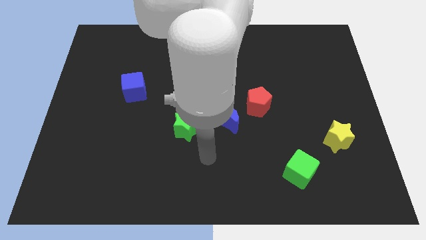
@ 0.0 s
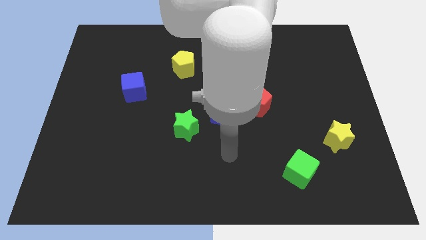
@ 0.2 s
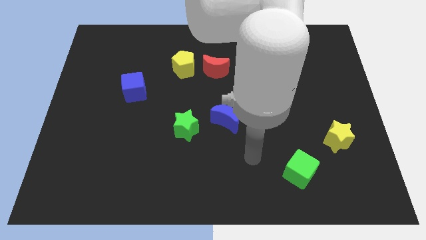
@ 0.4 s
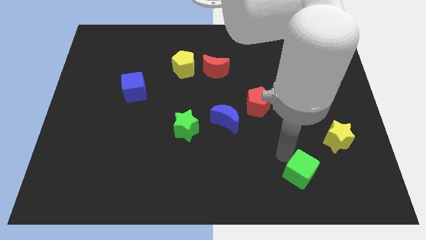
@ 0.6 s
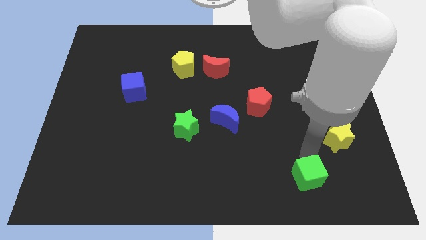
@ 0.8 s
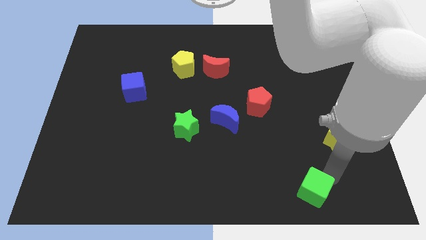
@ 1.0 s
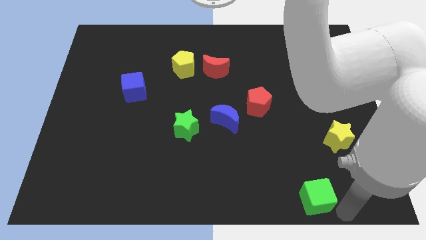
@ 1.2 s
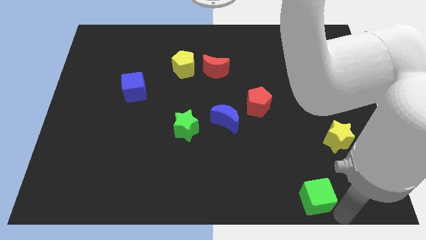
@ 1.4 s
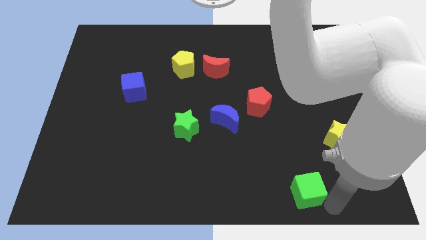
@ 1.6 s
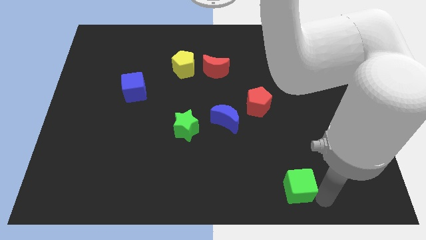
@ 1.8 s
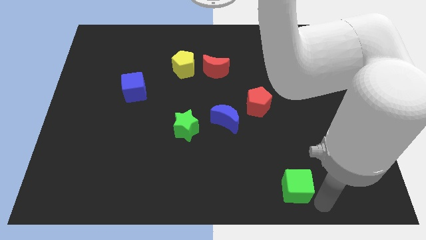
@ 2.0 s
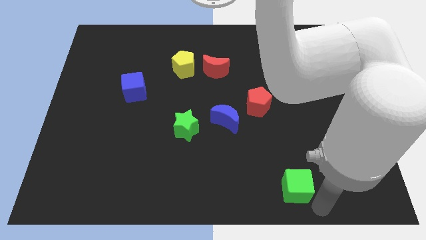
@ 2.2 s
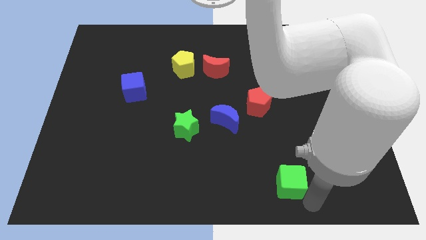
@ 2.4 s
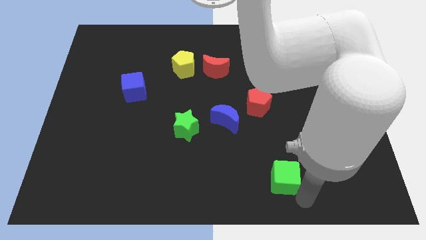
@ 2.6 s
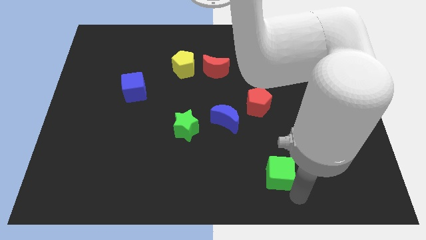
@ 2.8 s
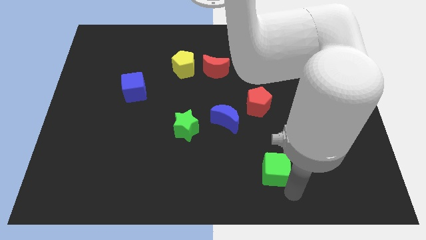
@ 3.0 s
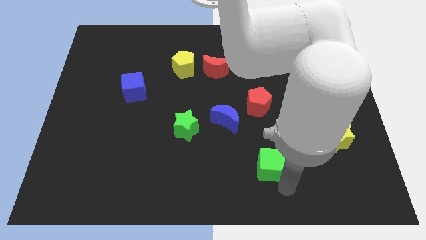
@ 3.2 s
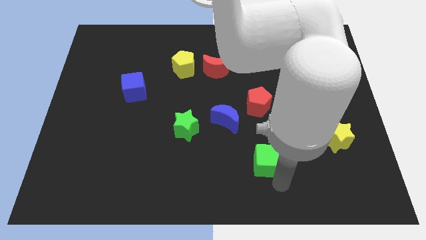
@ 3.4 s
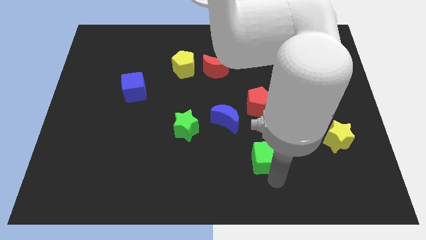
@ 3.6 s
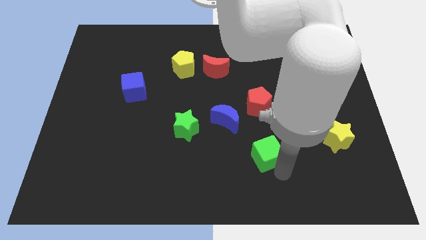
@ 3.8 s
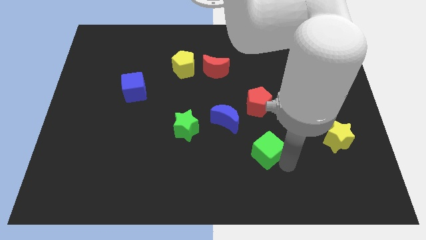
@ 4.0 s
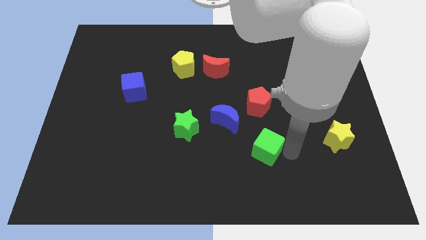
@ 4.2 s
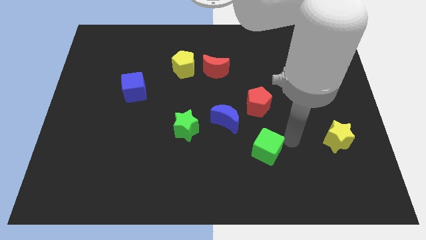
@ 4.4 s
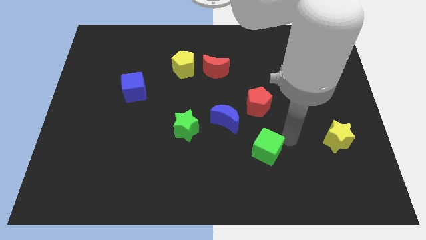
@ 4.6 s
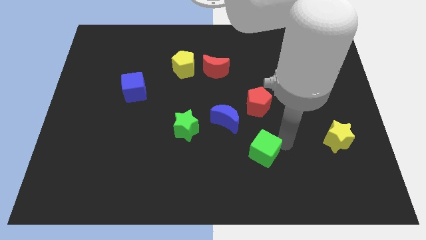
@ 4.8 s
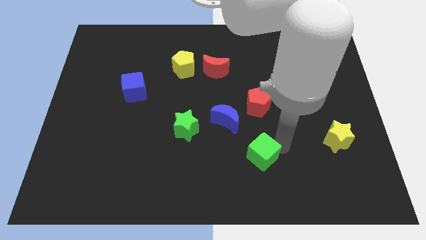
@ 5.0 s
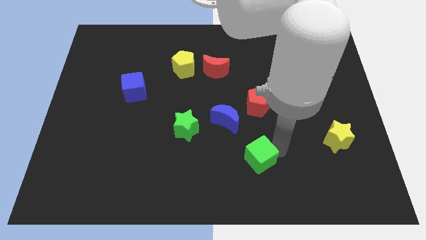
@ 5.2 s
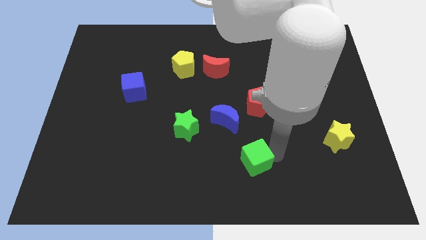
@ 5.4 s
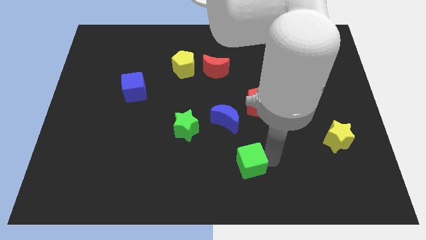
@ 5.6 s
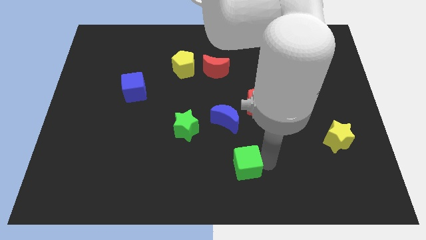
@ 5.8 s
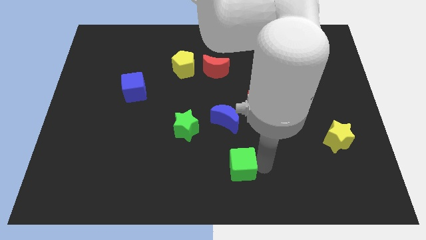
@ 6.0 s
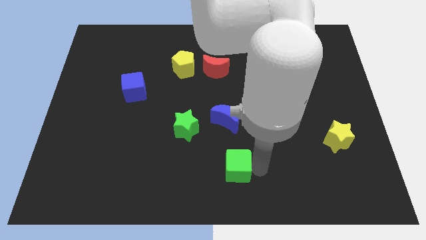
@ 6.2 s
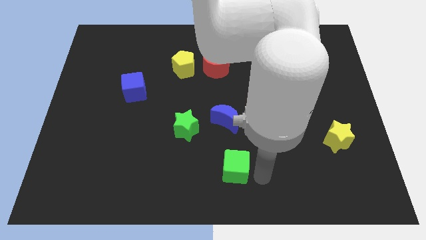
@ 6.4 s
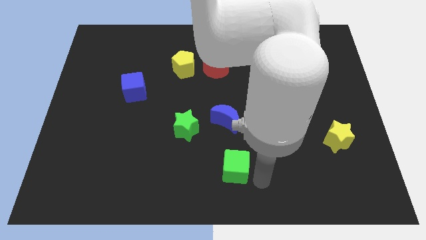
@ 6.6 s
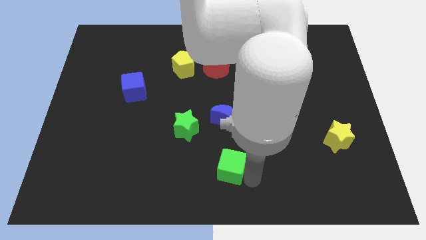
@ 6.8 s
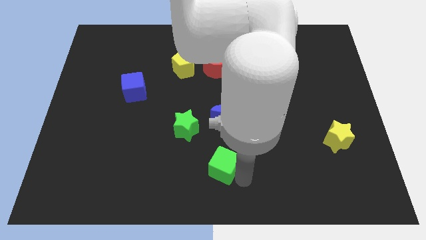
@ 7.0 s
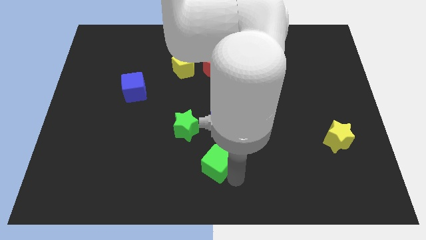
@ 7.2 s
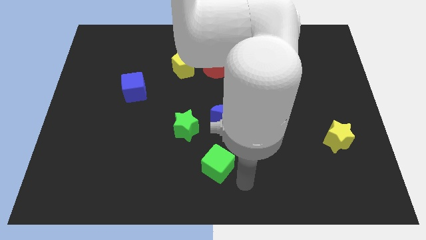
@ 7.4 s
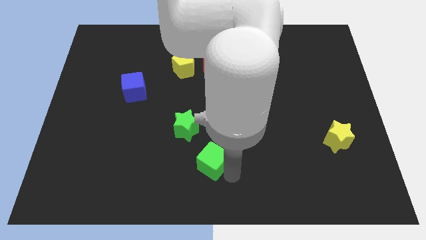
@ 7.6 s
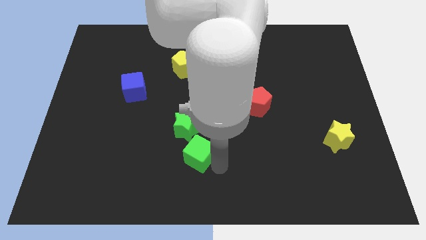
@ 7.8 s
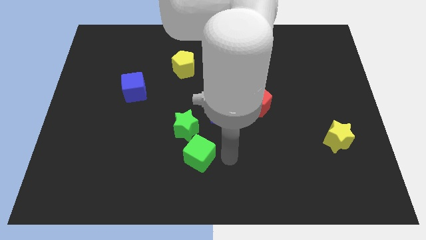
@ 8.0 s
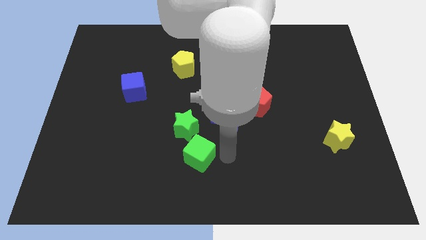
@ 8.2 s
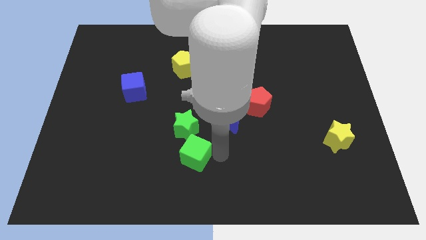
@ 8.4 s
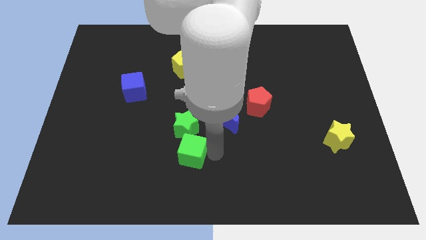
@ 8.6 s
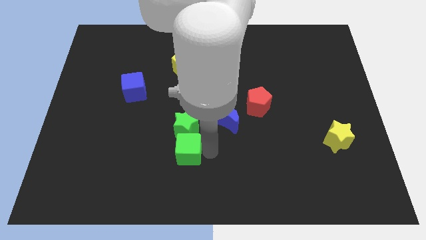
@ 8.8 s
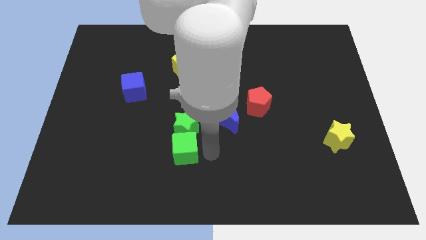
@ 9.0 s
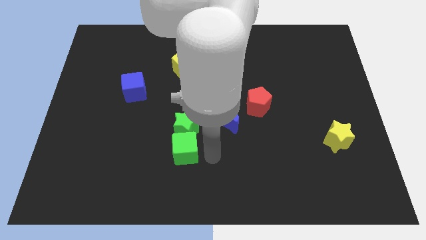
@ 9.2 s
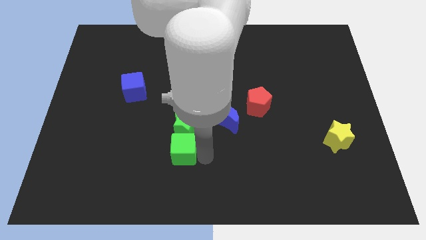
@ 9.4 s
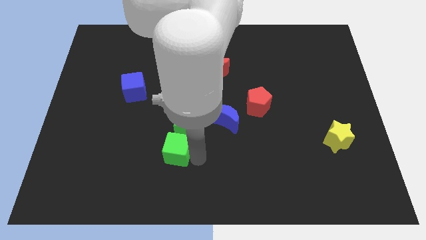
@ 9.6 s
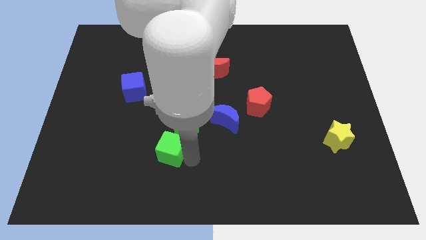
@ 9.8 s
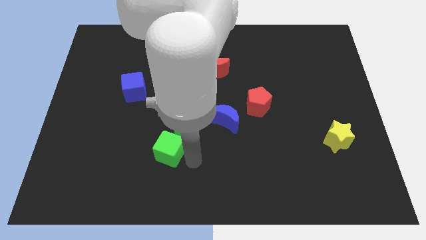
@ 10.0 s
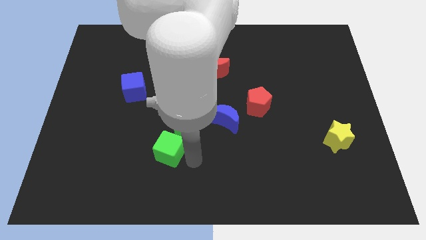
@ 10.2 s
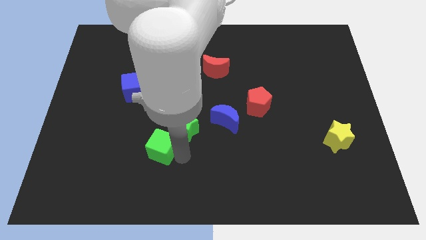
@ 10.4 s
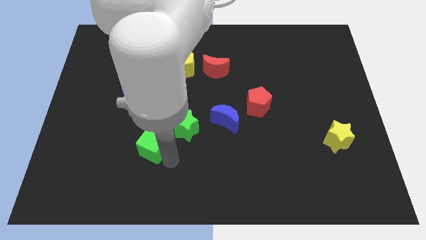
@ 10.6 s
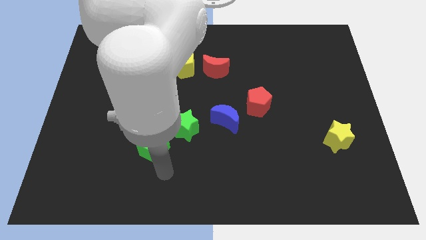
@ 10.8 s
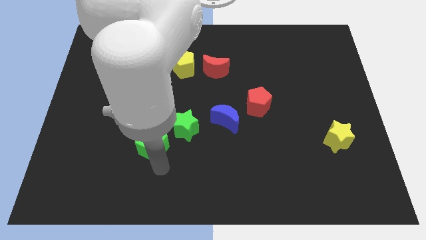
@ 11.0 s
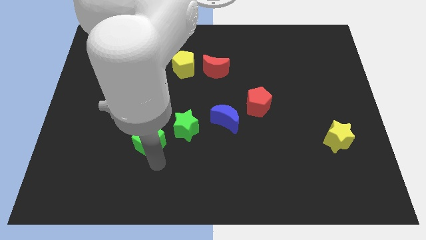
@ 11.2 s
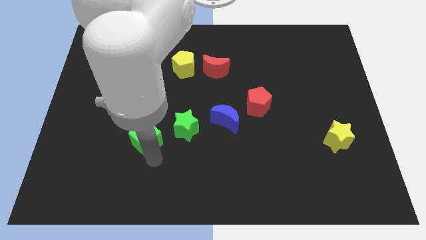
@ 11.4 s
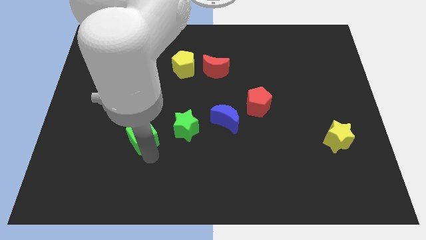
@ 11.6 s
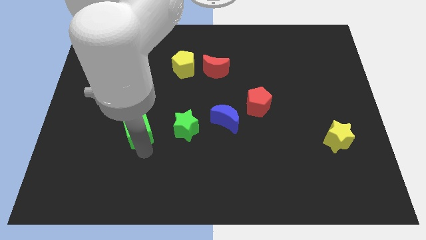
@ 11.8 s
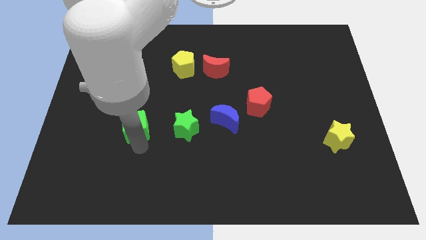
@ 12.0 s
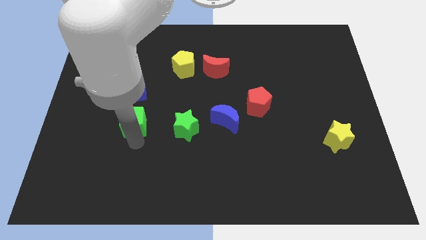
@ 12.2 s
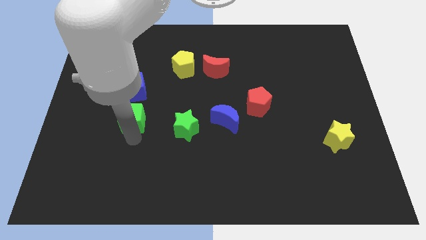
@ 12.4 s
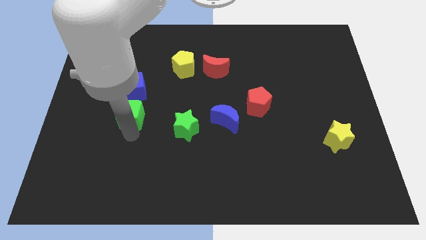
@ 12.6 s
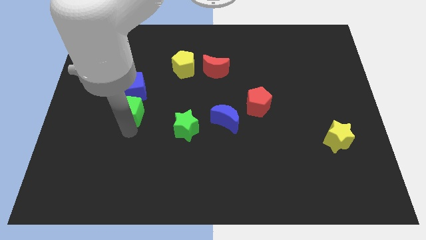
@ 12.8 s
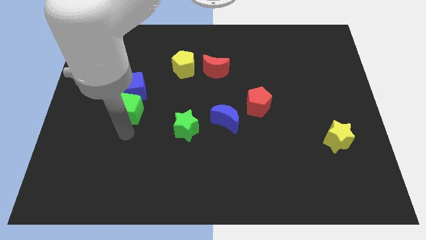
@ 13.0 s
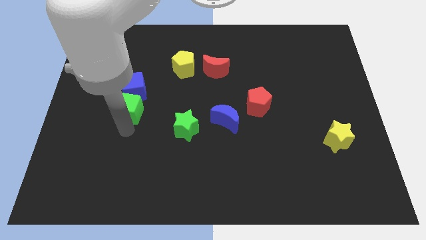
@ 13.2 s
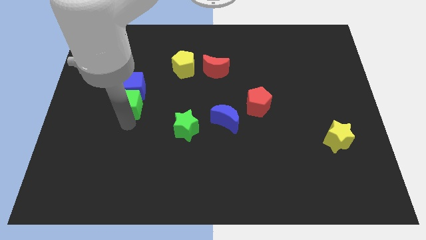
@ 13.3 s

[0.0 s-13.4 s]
move the green cube towards the blue cube

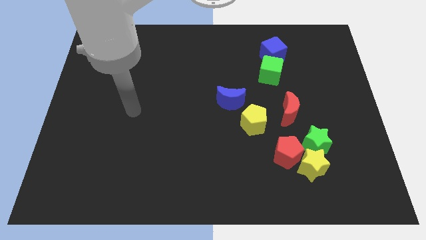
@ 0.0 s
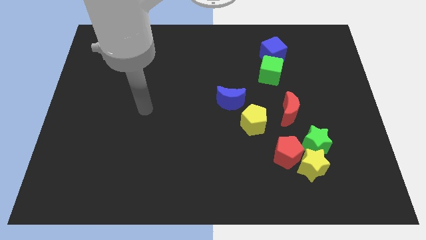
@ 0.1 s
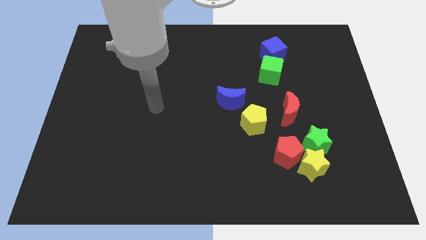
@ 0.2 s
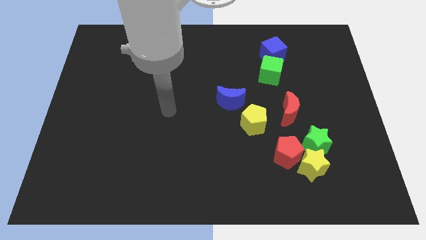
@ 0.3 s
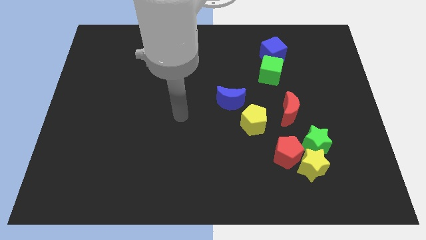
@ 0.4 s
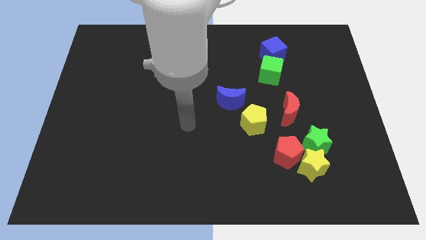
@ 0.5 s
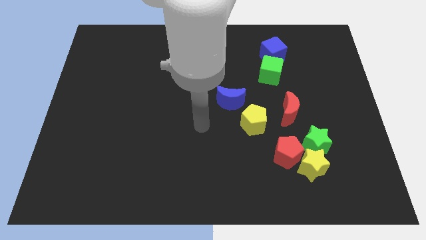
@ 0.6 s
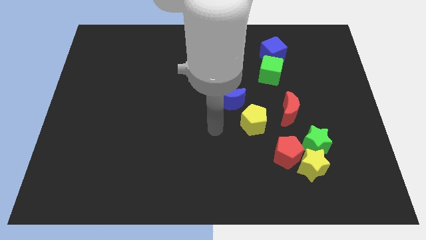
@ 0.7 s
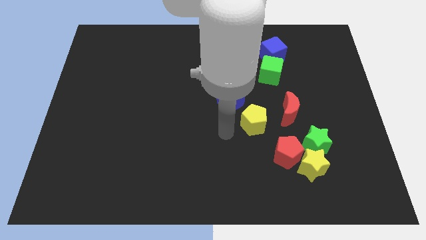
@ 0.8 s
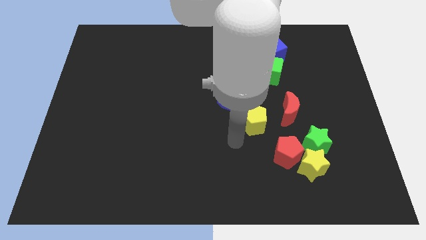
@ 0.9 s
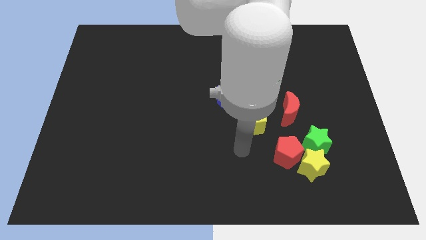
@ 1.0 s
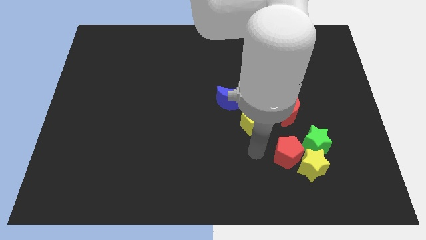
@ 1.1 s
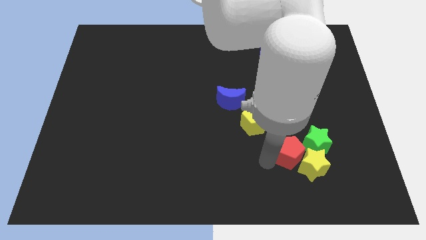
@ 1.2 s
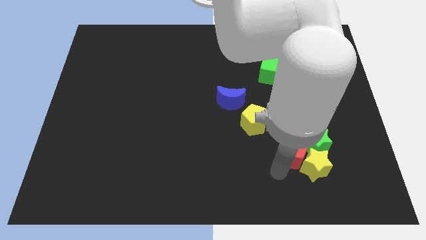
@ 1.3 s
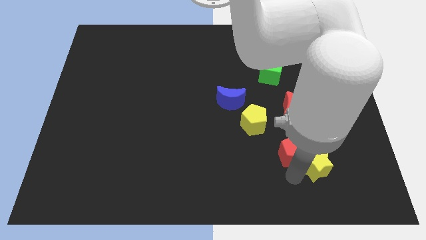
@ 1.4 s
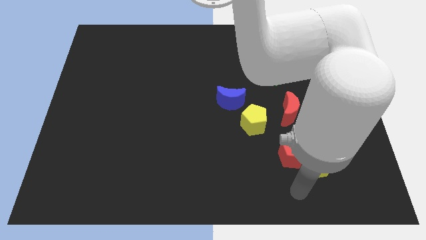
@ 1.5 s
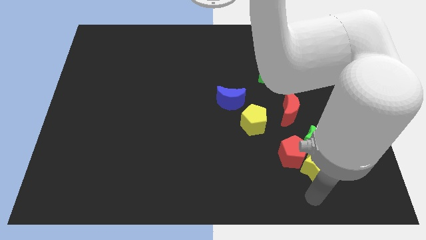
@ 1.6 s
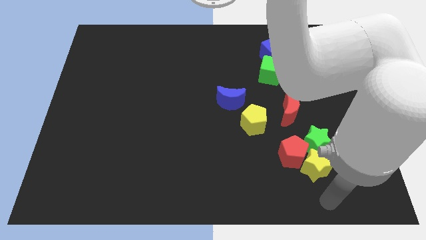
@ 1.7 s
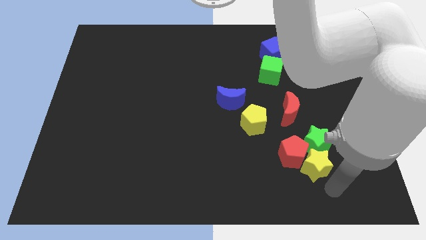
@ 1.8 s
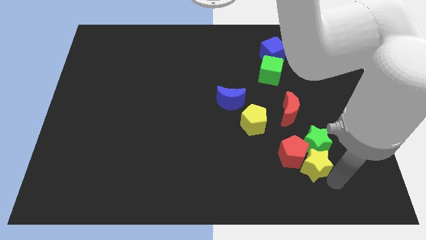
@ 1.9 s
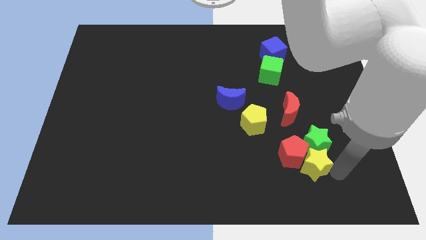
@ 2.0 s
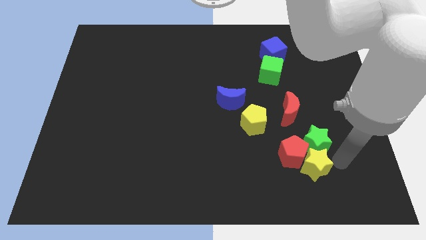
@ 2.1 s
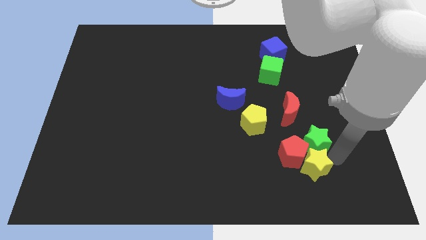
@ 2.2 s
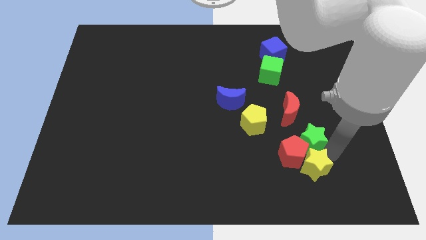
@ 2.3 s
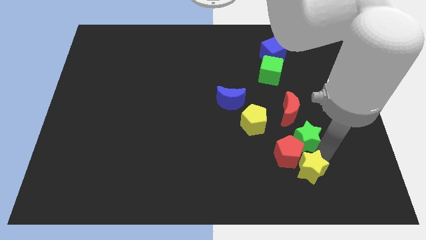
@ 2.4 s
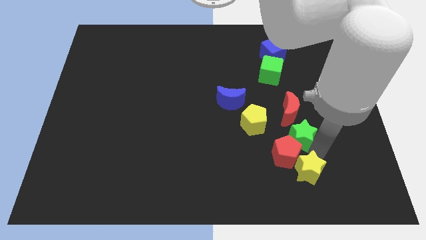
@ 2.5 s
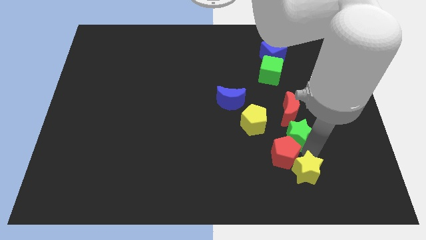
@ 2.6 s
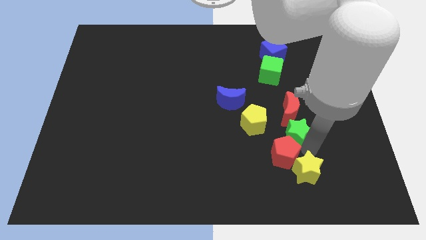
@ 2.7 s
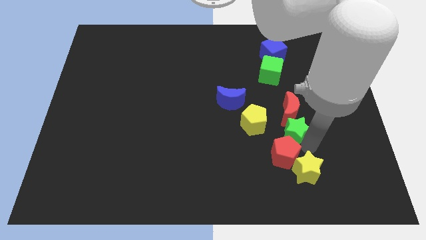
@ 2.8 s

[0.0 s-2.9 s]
push the green star to the red moon
